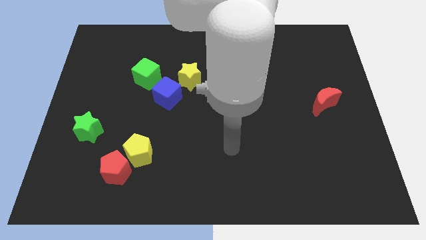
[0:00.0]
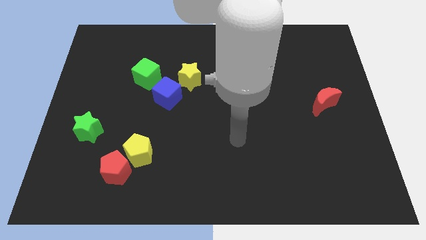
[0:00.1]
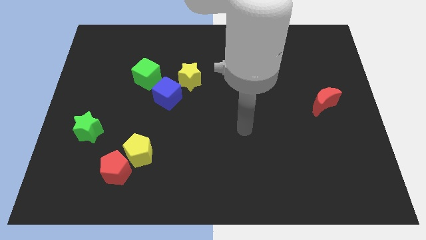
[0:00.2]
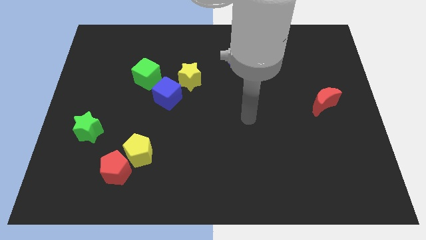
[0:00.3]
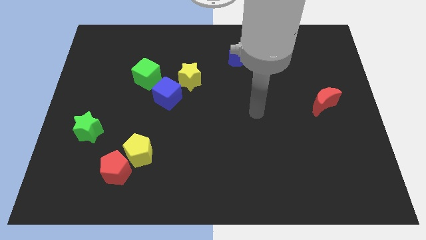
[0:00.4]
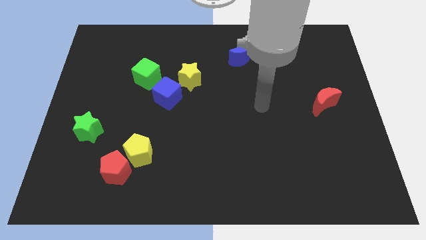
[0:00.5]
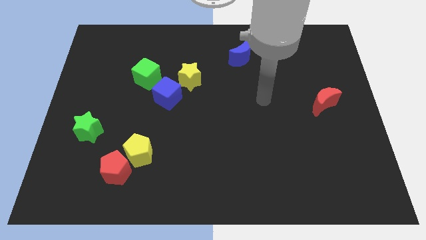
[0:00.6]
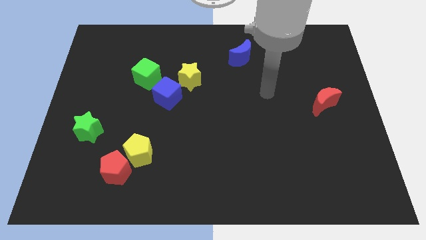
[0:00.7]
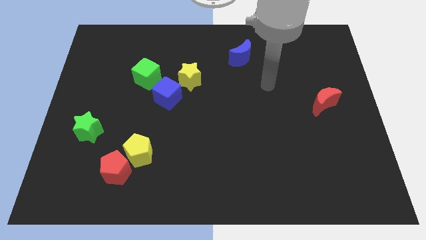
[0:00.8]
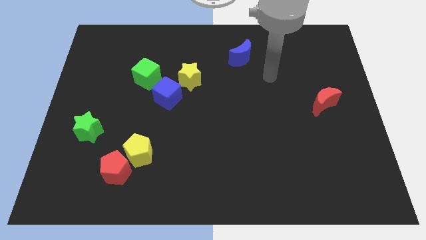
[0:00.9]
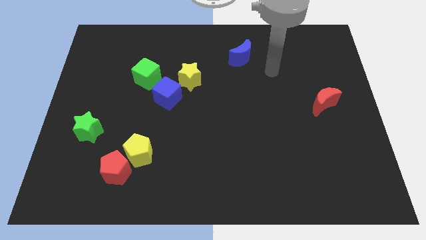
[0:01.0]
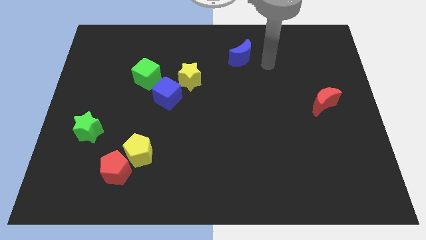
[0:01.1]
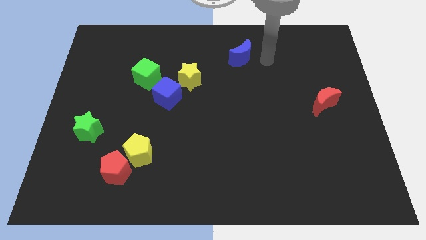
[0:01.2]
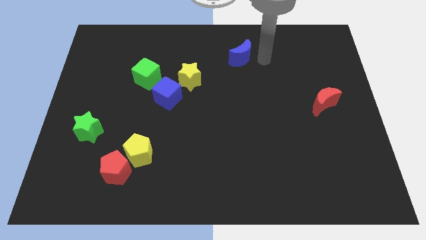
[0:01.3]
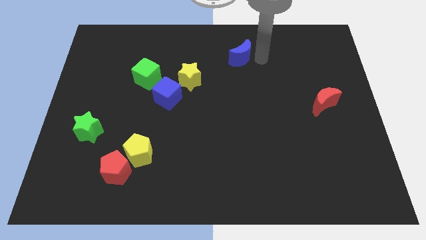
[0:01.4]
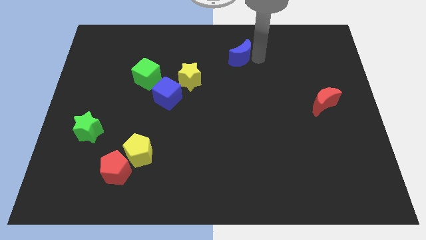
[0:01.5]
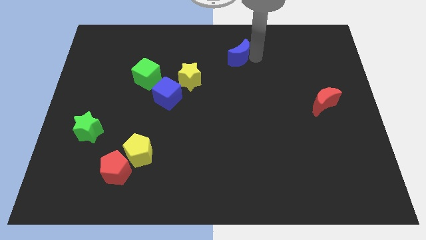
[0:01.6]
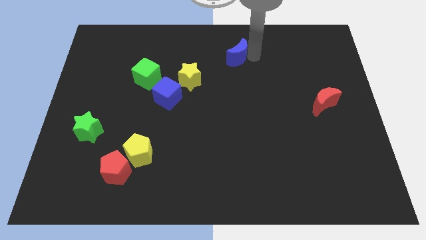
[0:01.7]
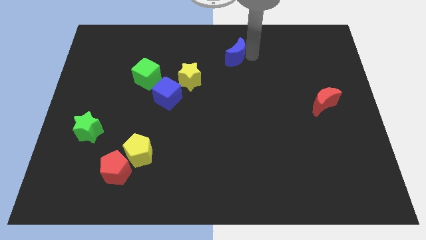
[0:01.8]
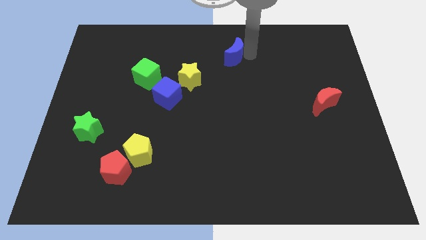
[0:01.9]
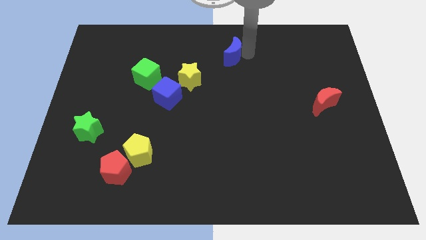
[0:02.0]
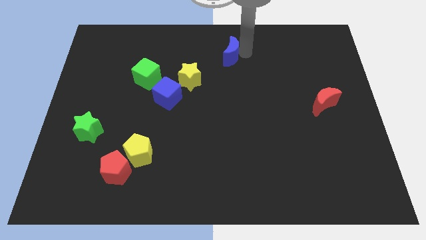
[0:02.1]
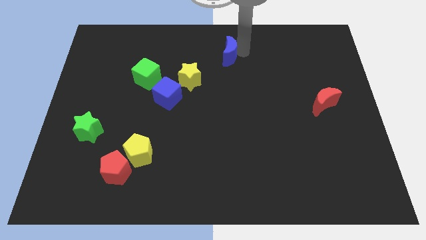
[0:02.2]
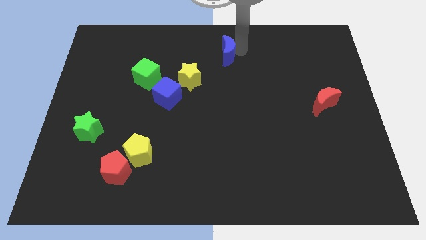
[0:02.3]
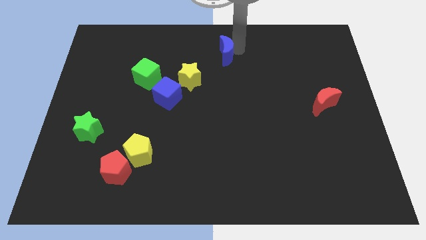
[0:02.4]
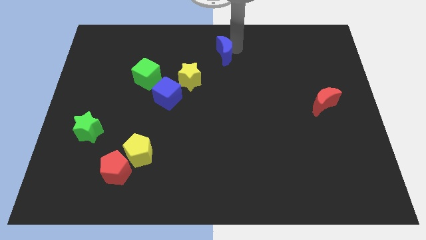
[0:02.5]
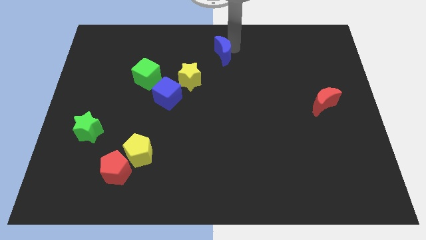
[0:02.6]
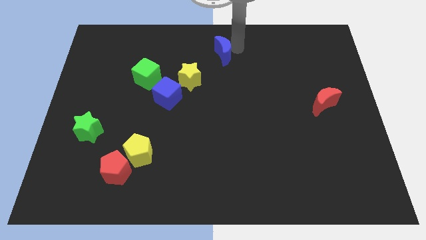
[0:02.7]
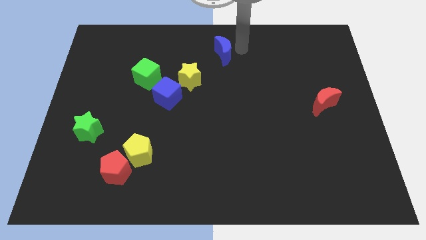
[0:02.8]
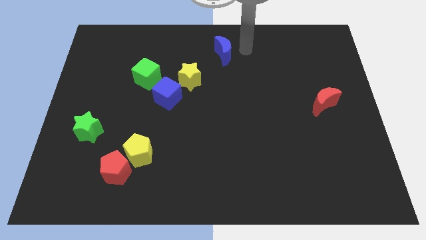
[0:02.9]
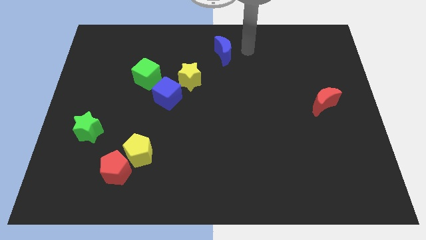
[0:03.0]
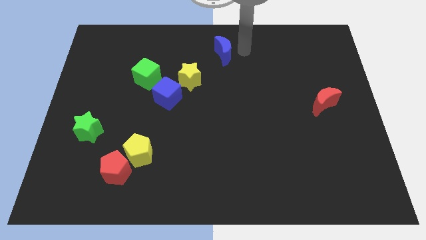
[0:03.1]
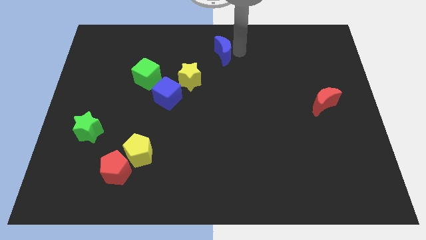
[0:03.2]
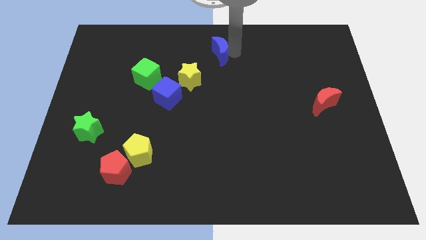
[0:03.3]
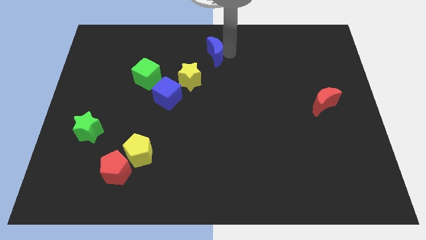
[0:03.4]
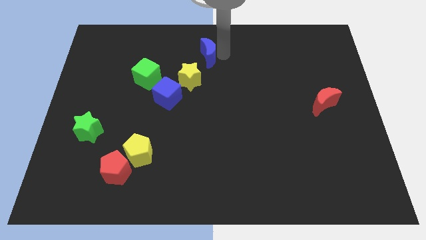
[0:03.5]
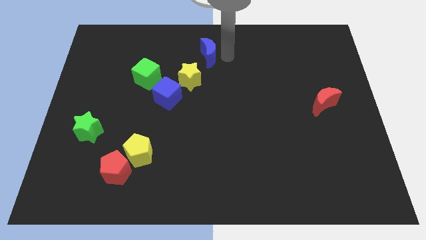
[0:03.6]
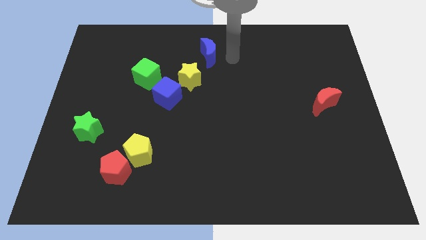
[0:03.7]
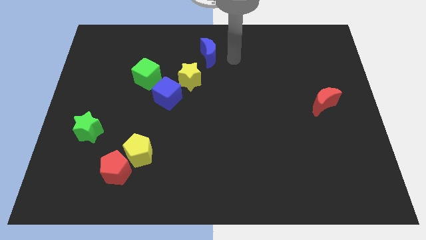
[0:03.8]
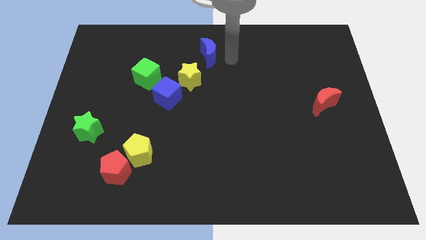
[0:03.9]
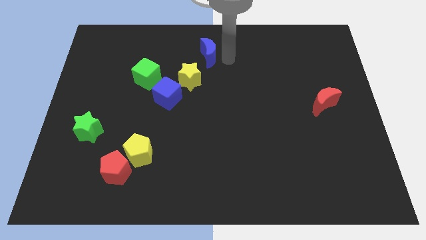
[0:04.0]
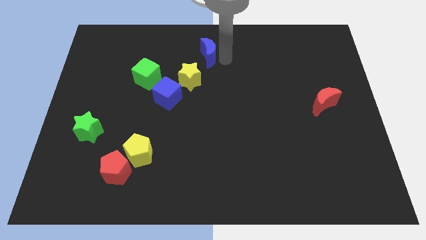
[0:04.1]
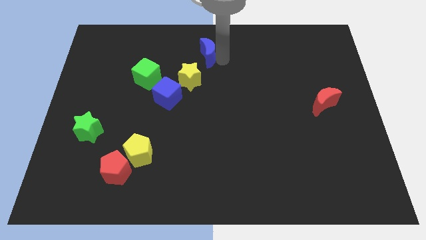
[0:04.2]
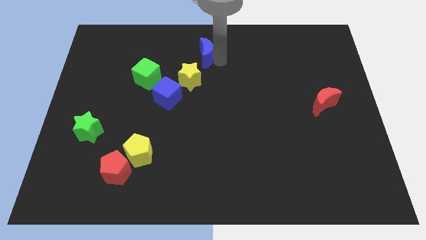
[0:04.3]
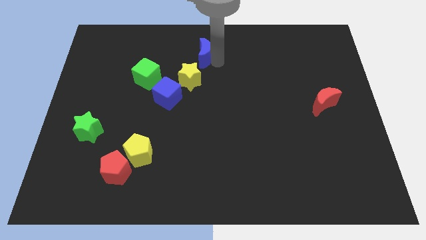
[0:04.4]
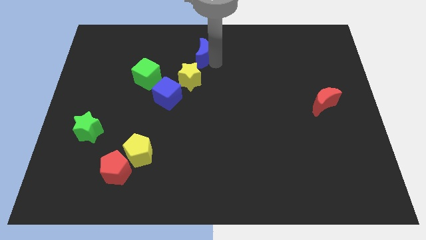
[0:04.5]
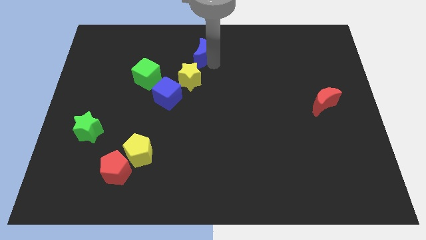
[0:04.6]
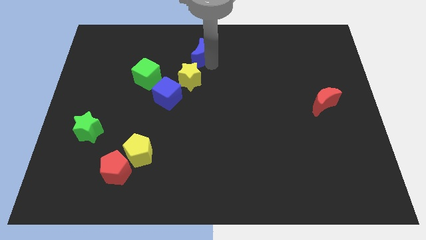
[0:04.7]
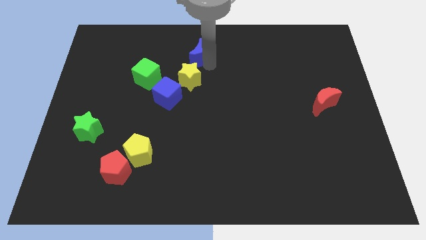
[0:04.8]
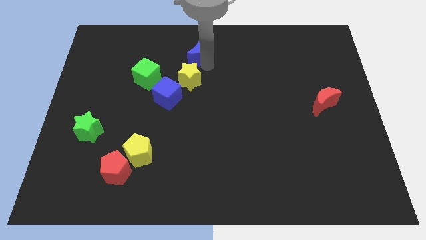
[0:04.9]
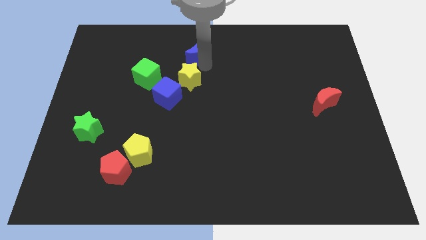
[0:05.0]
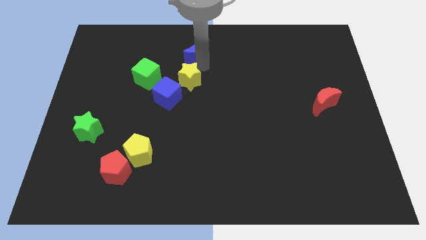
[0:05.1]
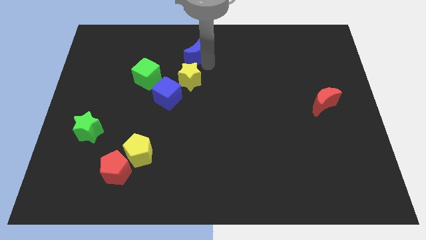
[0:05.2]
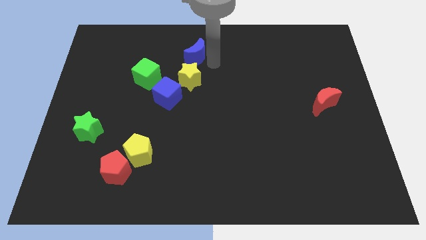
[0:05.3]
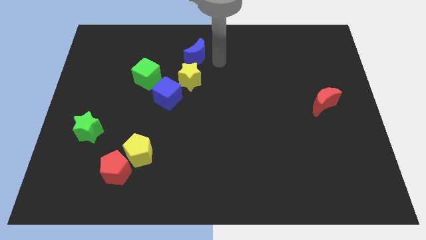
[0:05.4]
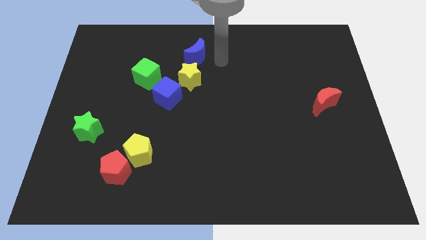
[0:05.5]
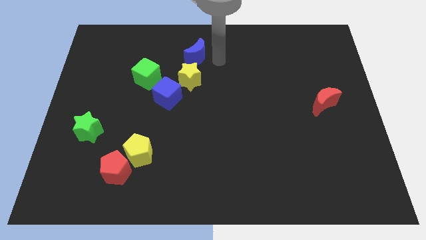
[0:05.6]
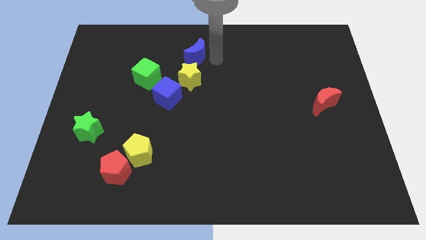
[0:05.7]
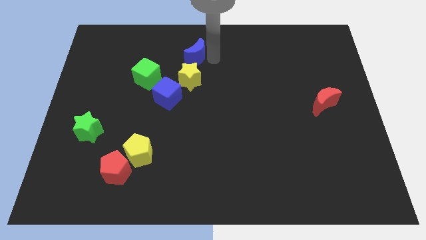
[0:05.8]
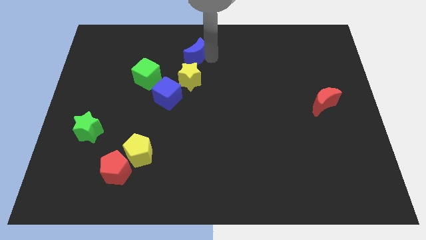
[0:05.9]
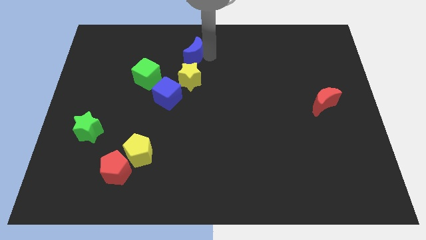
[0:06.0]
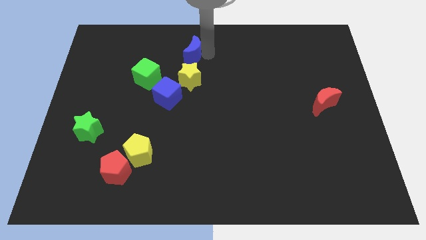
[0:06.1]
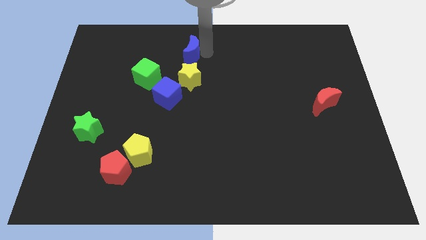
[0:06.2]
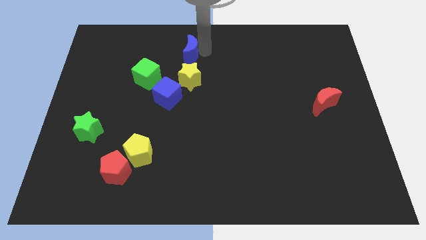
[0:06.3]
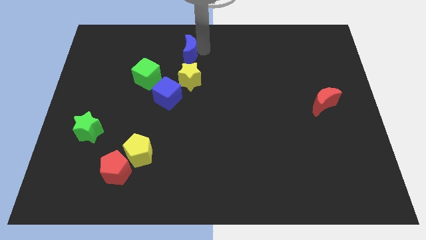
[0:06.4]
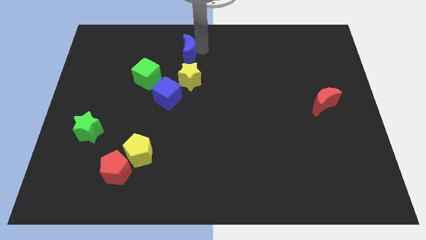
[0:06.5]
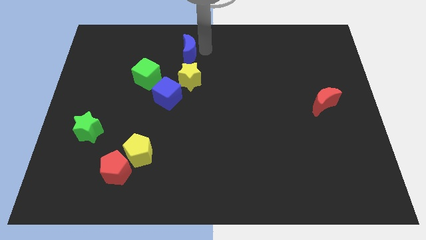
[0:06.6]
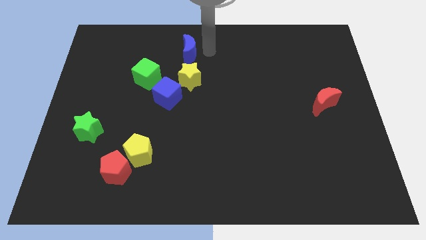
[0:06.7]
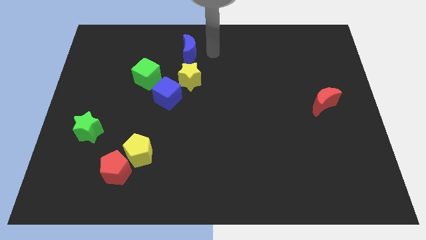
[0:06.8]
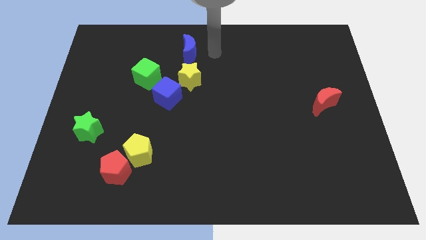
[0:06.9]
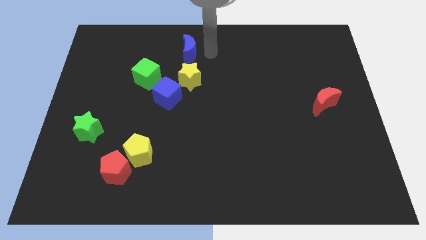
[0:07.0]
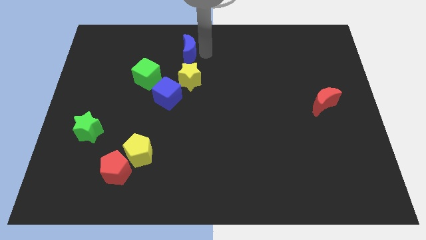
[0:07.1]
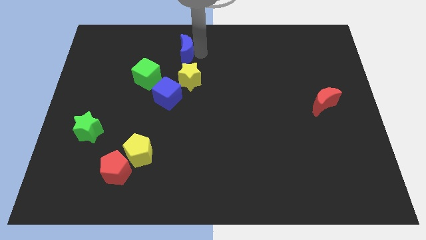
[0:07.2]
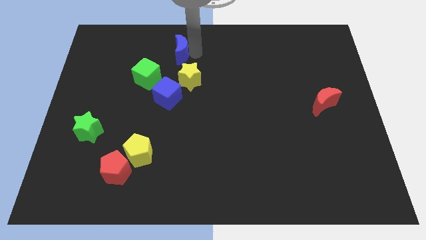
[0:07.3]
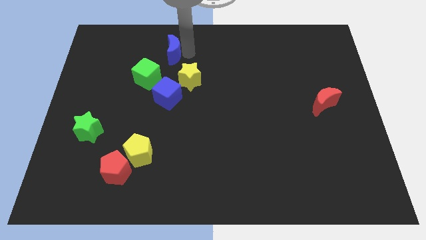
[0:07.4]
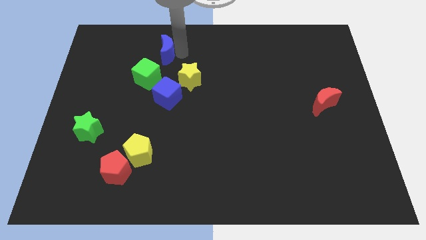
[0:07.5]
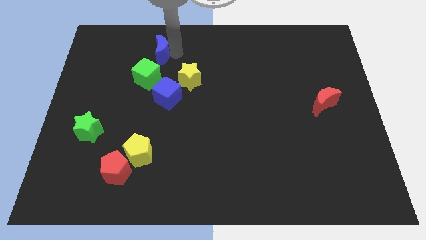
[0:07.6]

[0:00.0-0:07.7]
push the blue moon to the left

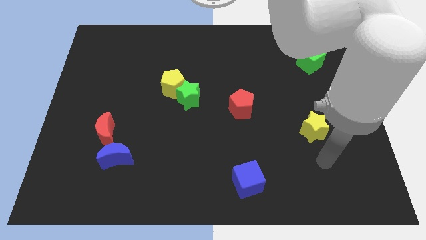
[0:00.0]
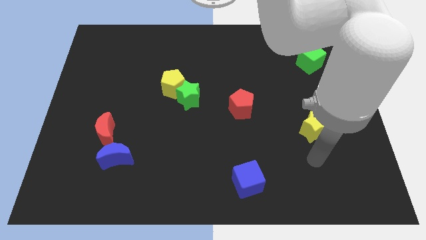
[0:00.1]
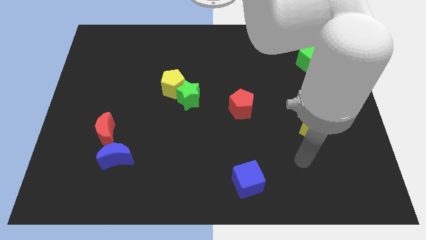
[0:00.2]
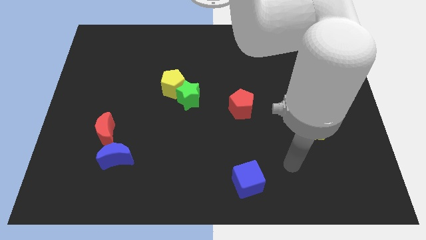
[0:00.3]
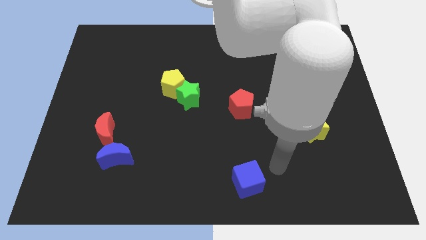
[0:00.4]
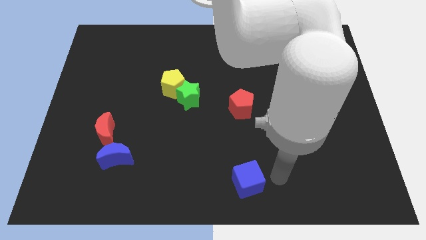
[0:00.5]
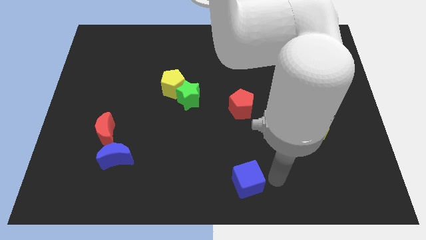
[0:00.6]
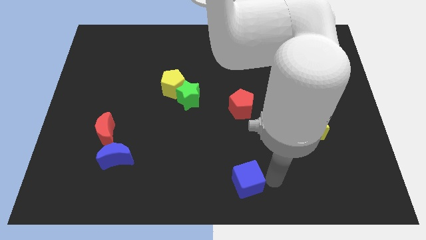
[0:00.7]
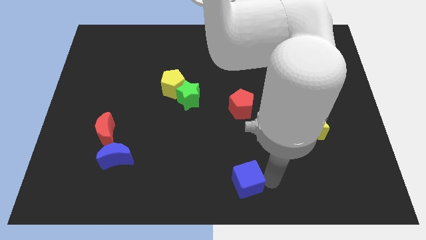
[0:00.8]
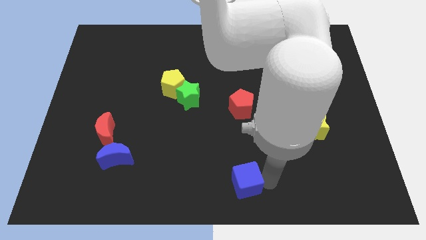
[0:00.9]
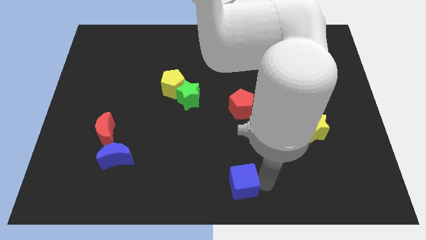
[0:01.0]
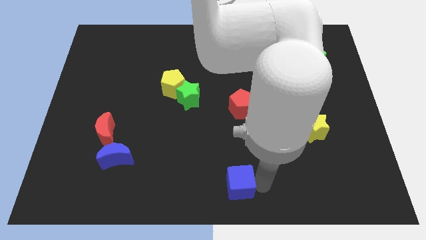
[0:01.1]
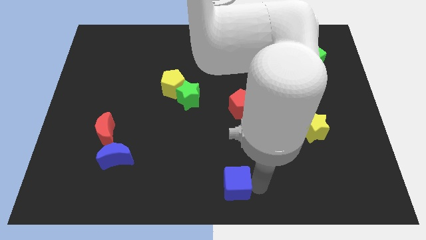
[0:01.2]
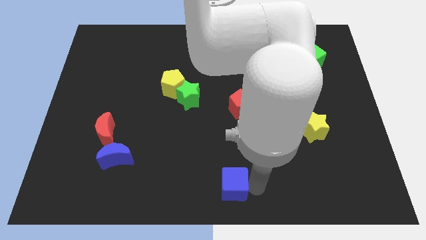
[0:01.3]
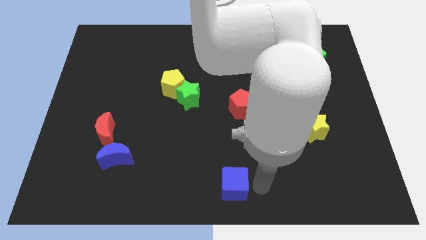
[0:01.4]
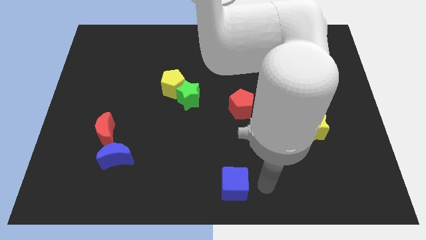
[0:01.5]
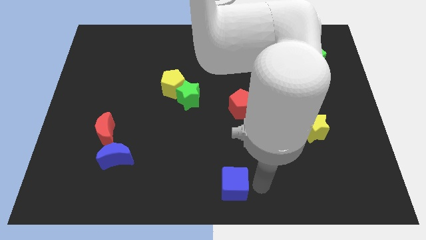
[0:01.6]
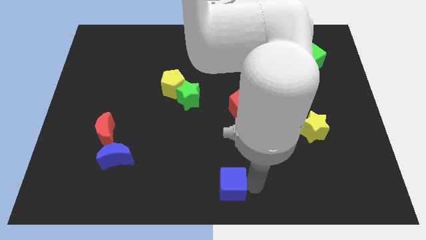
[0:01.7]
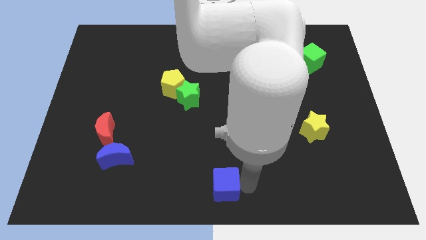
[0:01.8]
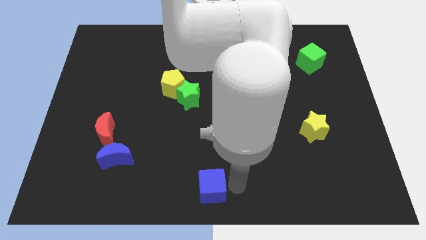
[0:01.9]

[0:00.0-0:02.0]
move the blue cube a little bit to the left
